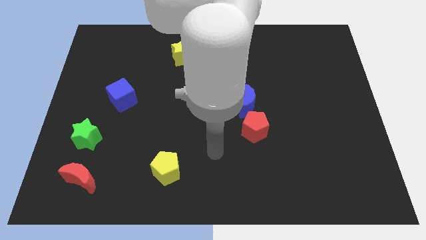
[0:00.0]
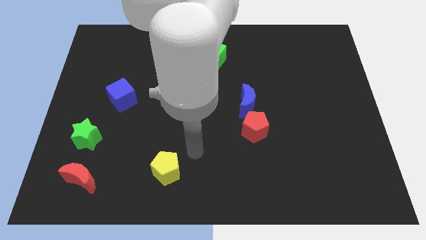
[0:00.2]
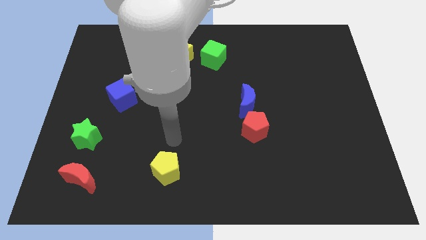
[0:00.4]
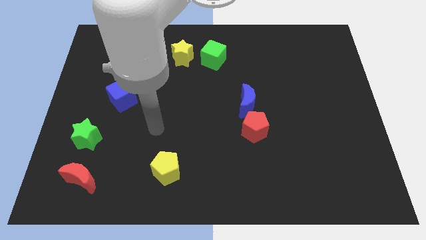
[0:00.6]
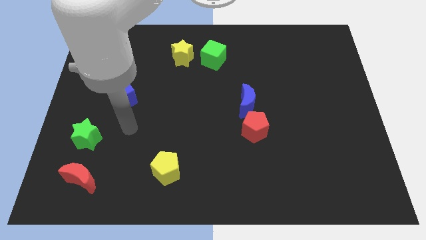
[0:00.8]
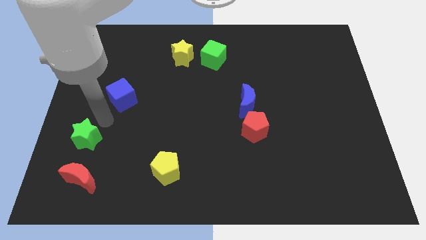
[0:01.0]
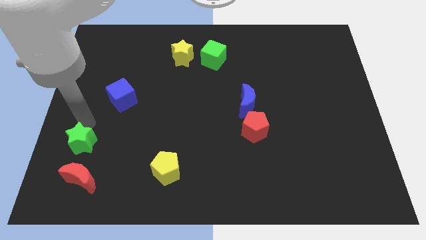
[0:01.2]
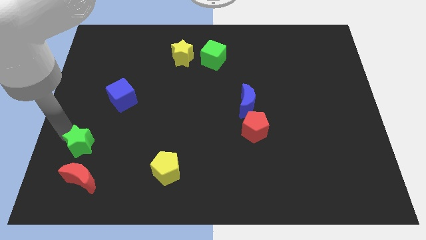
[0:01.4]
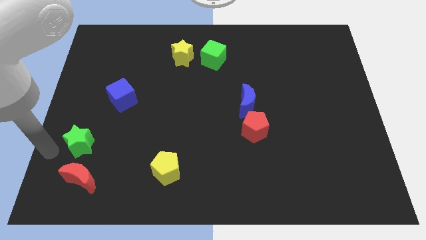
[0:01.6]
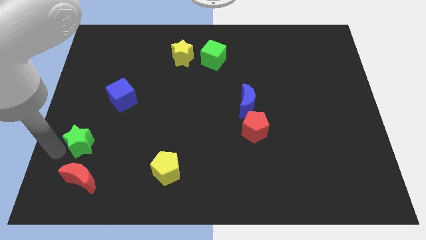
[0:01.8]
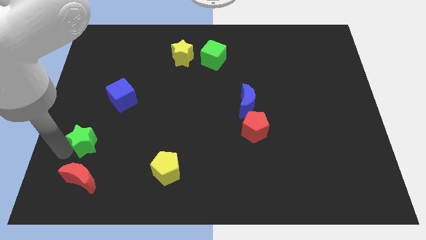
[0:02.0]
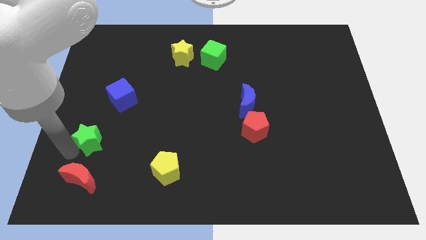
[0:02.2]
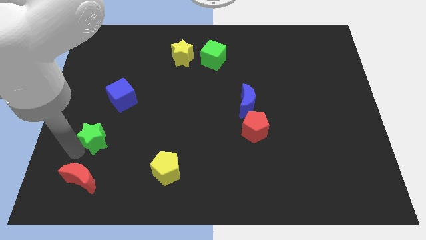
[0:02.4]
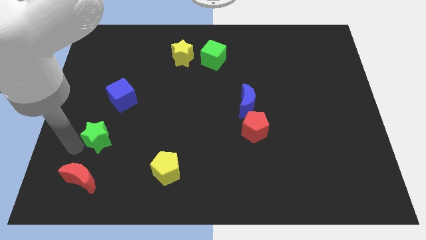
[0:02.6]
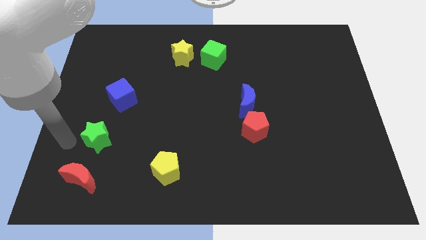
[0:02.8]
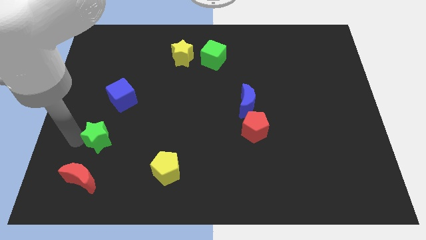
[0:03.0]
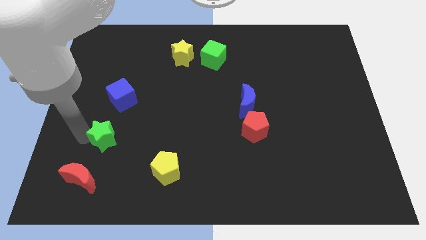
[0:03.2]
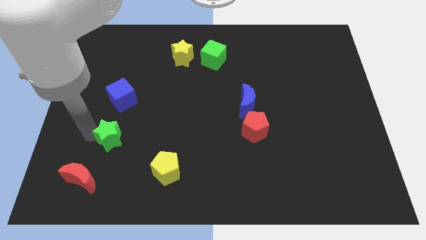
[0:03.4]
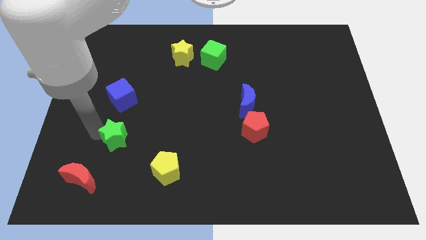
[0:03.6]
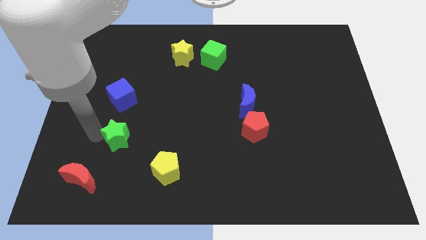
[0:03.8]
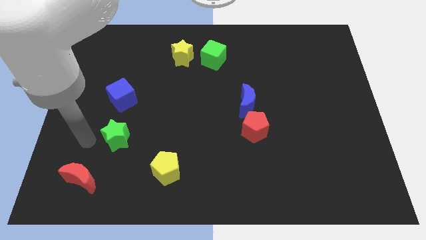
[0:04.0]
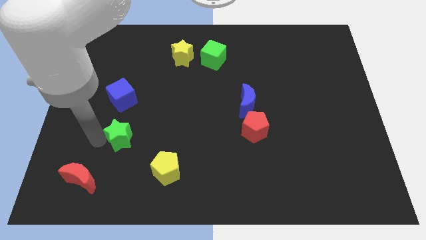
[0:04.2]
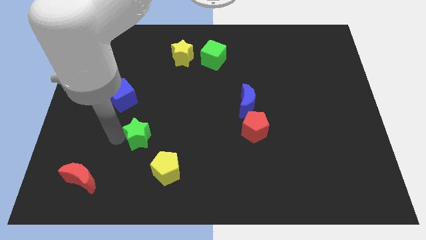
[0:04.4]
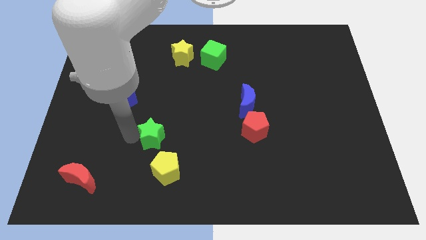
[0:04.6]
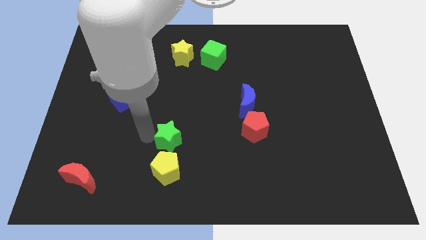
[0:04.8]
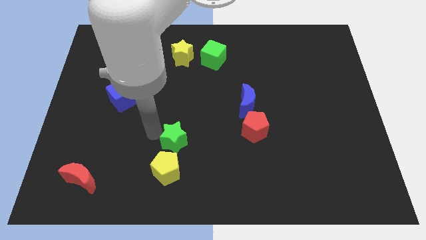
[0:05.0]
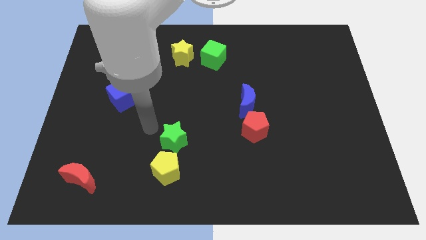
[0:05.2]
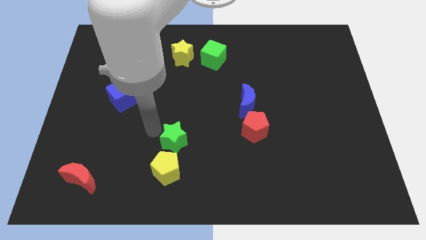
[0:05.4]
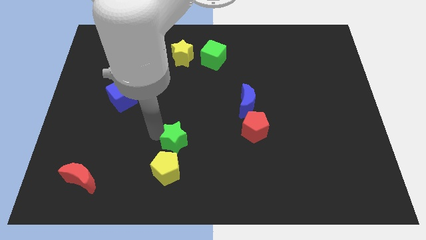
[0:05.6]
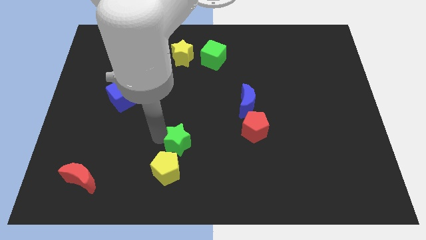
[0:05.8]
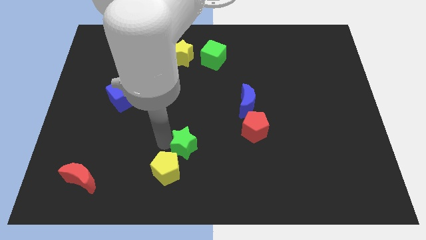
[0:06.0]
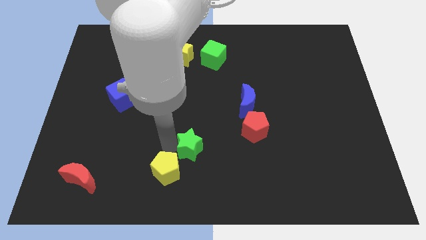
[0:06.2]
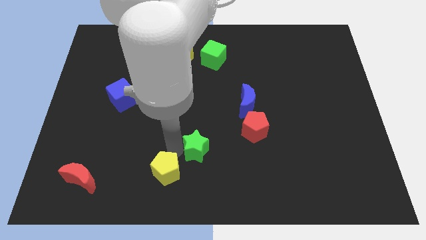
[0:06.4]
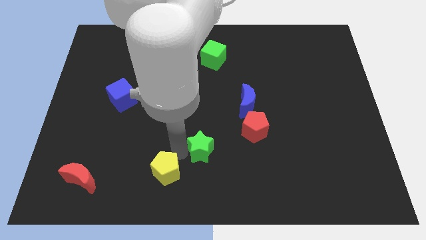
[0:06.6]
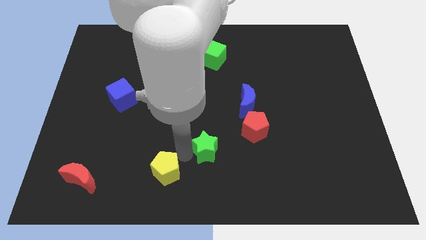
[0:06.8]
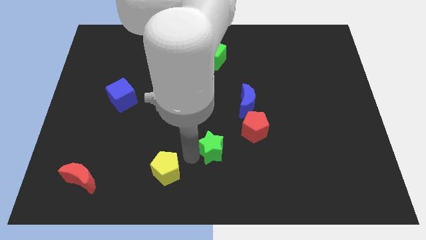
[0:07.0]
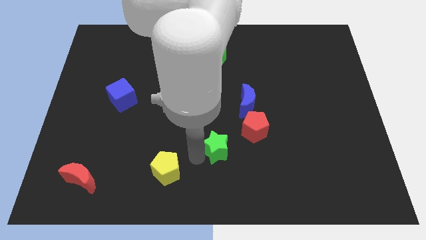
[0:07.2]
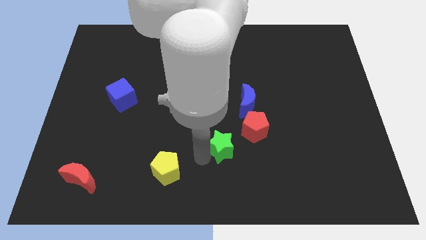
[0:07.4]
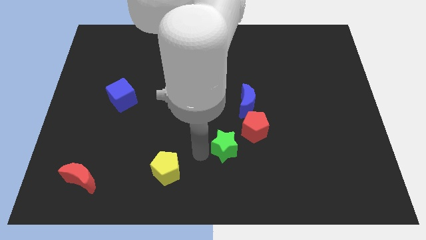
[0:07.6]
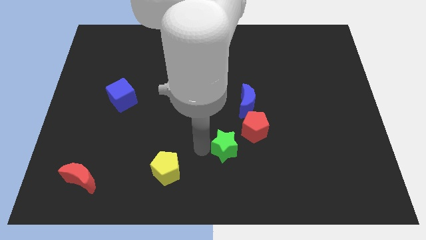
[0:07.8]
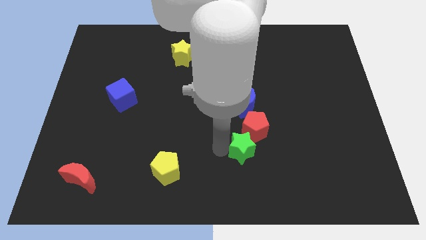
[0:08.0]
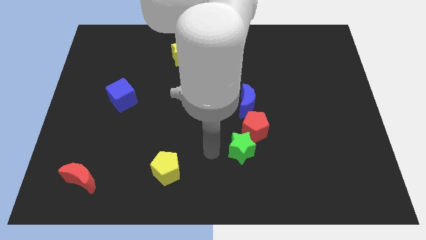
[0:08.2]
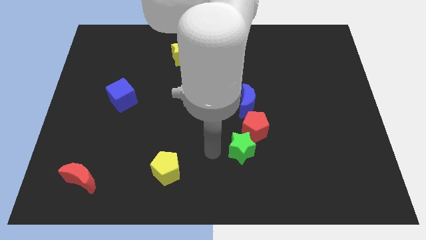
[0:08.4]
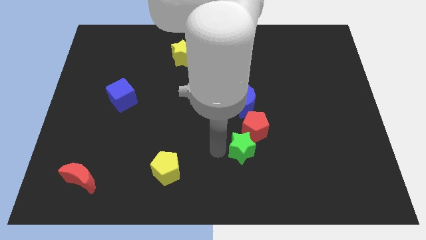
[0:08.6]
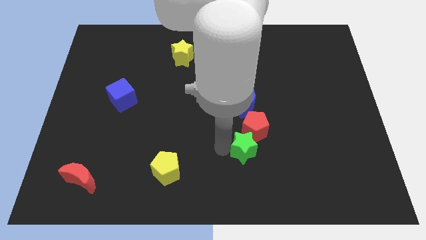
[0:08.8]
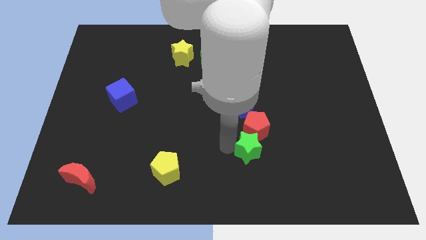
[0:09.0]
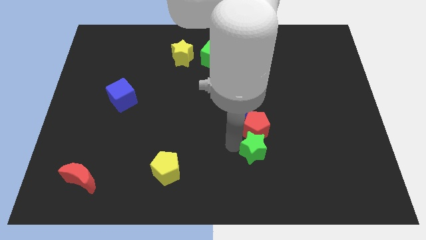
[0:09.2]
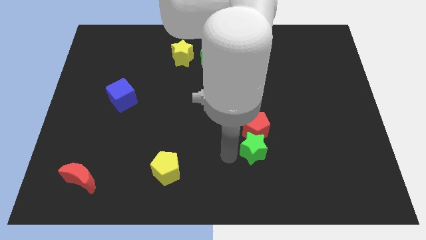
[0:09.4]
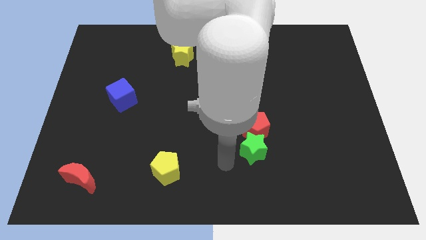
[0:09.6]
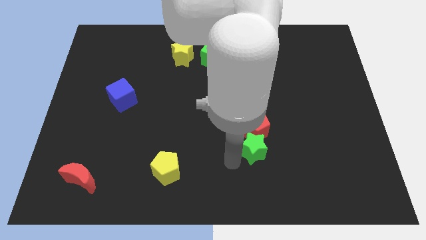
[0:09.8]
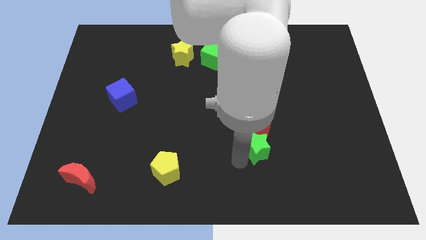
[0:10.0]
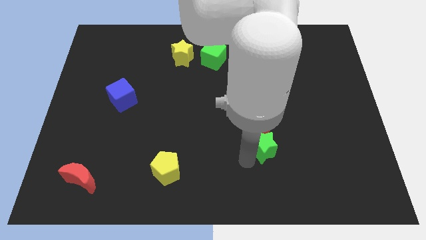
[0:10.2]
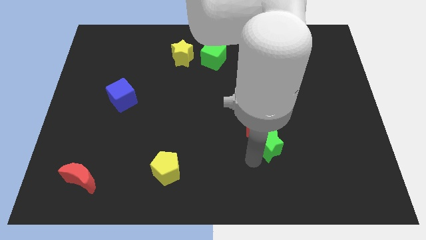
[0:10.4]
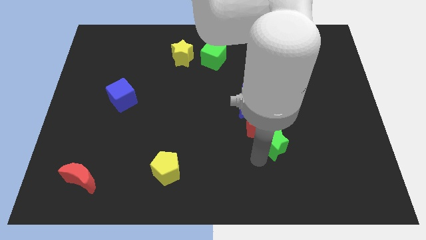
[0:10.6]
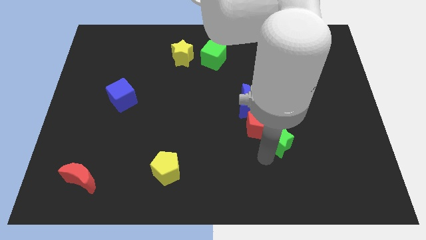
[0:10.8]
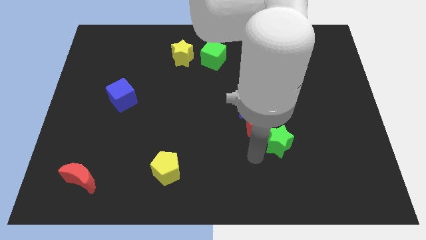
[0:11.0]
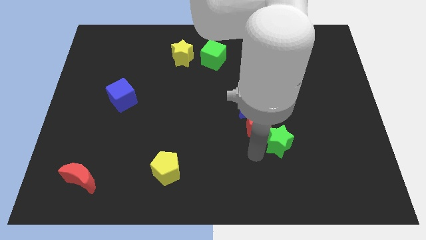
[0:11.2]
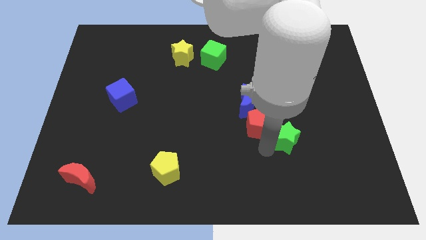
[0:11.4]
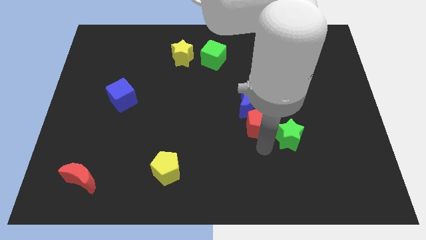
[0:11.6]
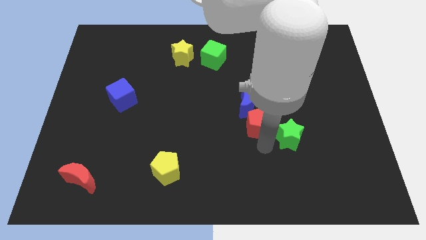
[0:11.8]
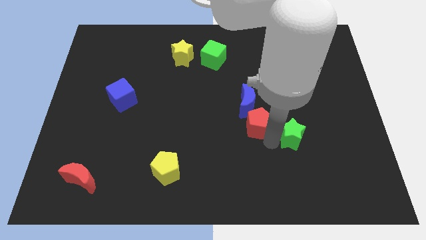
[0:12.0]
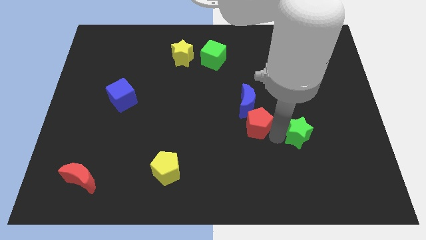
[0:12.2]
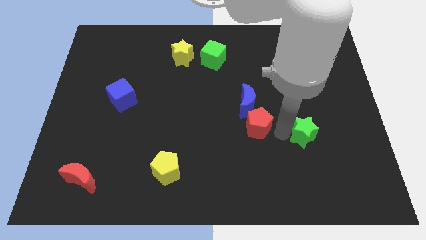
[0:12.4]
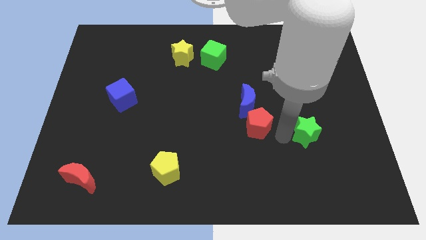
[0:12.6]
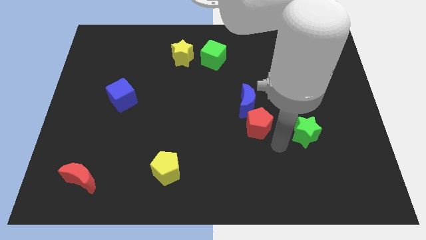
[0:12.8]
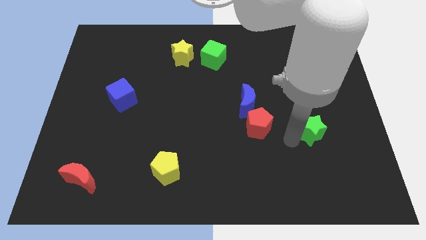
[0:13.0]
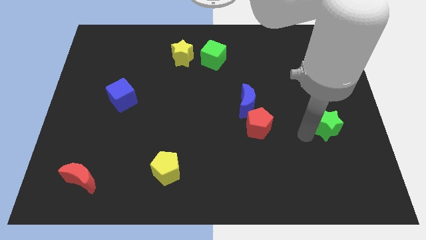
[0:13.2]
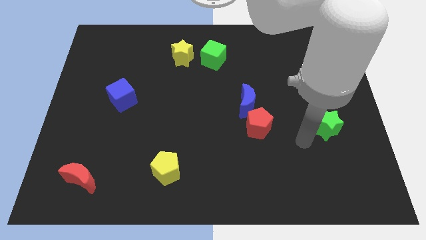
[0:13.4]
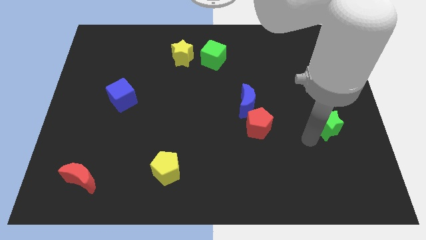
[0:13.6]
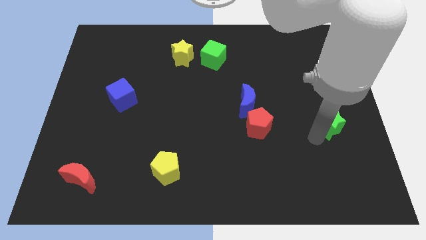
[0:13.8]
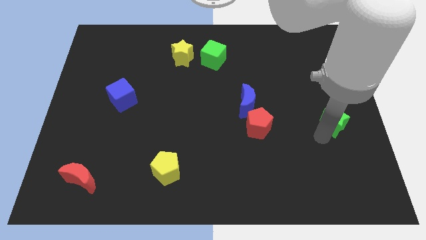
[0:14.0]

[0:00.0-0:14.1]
push the green star to the right side of the board
